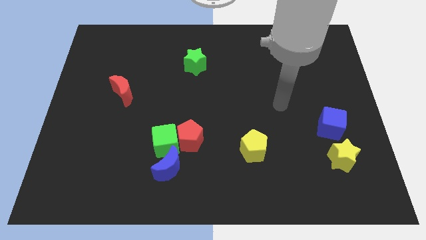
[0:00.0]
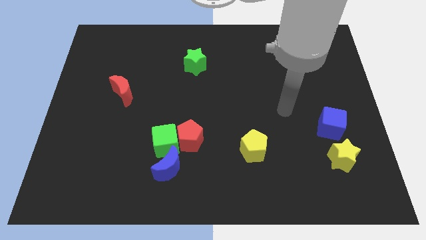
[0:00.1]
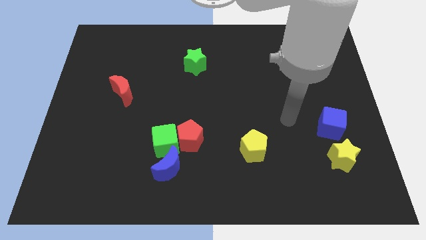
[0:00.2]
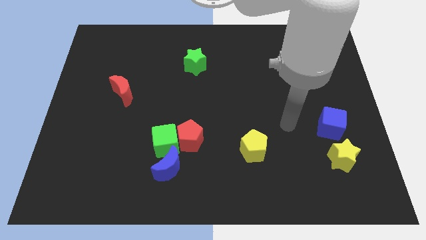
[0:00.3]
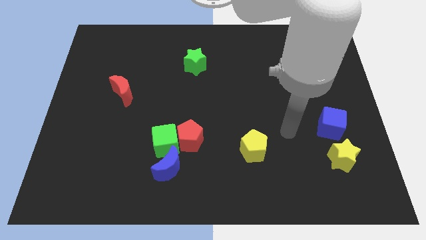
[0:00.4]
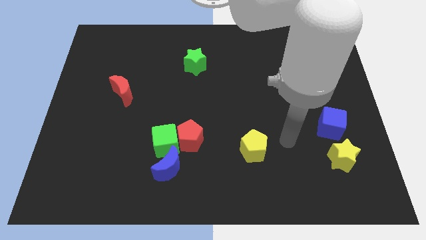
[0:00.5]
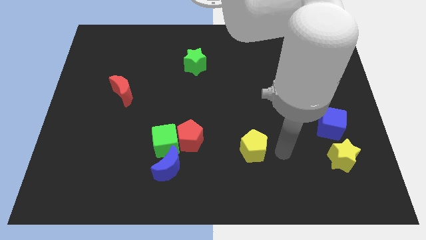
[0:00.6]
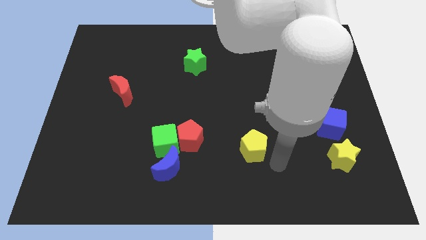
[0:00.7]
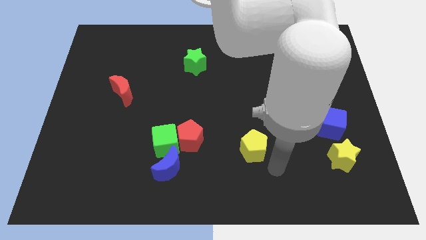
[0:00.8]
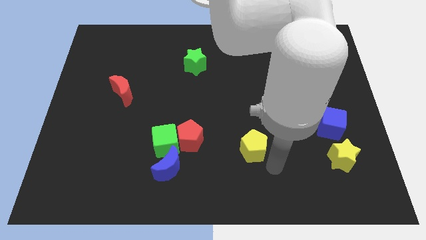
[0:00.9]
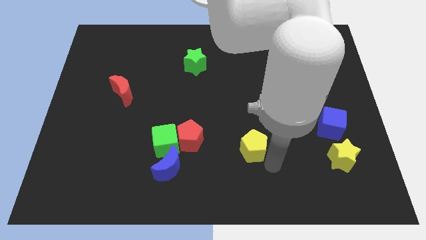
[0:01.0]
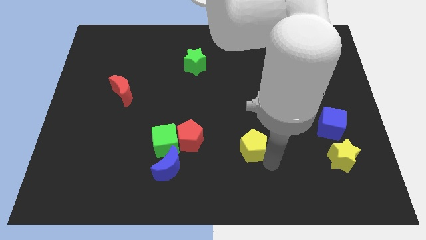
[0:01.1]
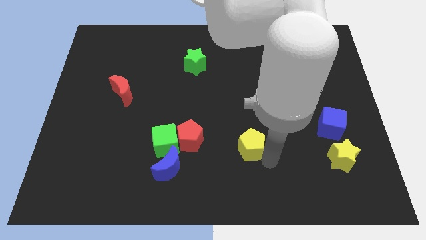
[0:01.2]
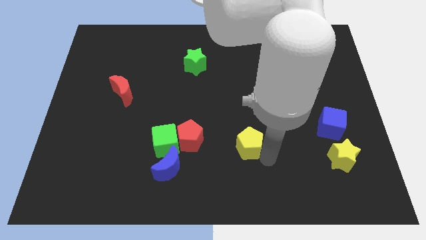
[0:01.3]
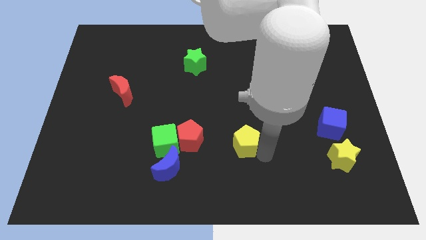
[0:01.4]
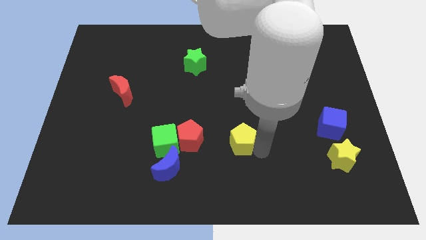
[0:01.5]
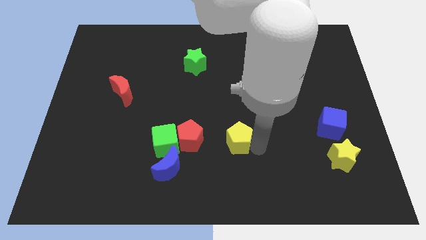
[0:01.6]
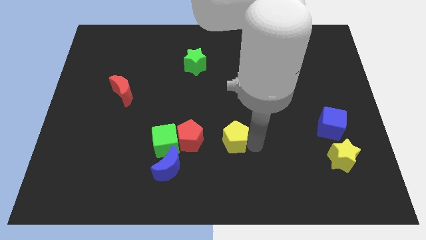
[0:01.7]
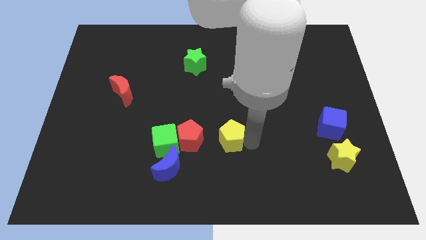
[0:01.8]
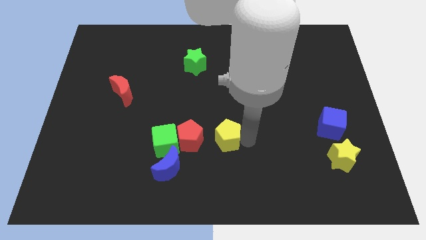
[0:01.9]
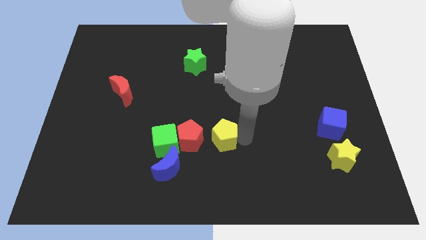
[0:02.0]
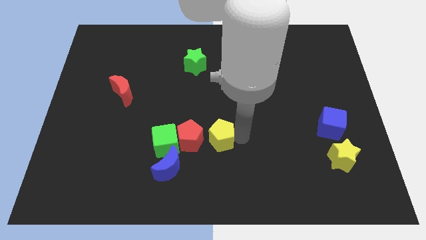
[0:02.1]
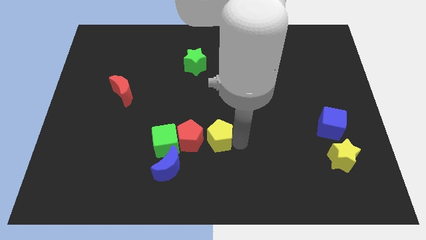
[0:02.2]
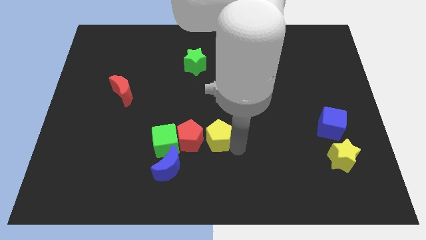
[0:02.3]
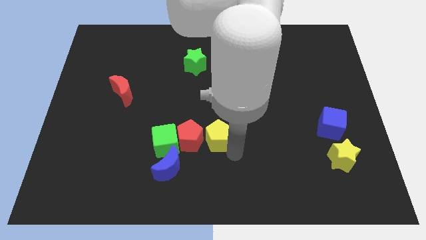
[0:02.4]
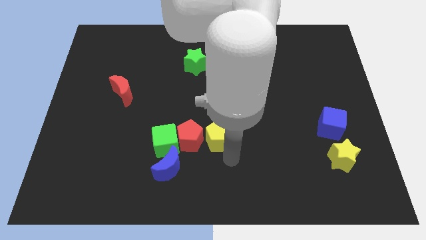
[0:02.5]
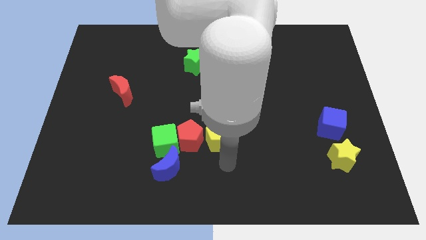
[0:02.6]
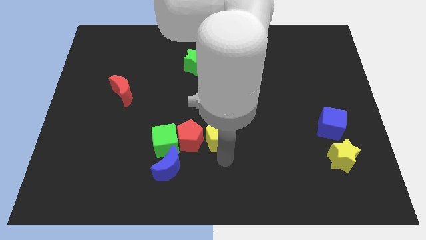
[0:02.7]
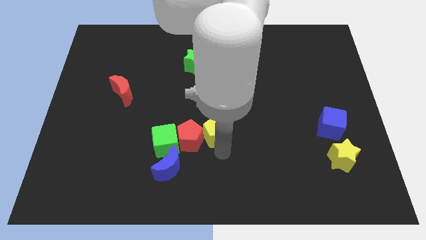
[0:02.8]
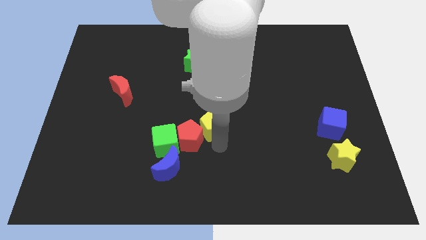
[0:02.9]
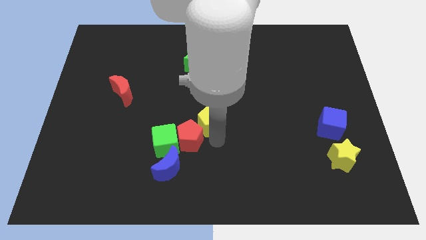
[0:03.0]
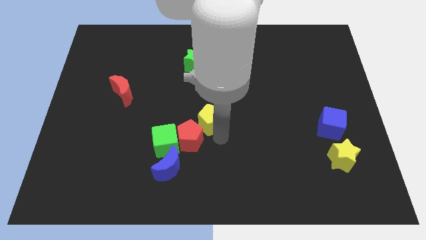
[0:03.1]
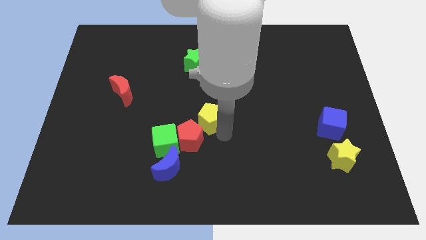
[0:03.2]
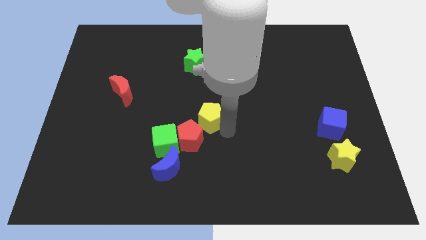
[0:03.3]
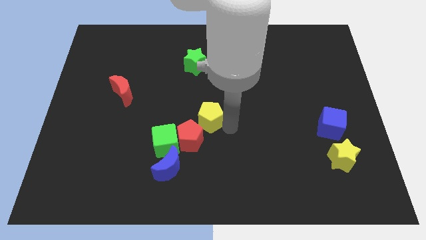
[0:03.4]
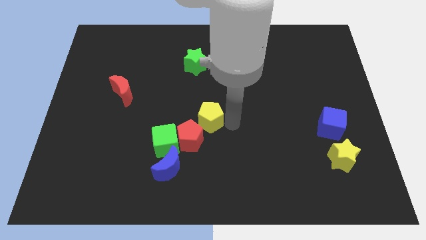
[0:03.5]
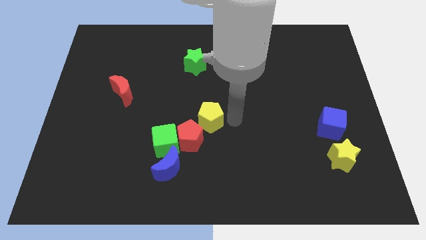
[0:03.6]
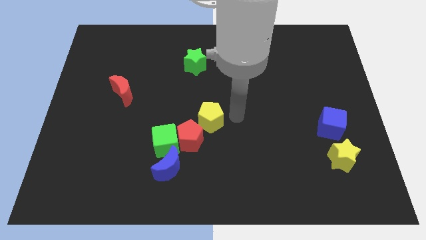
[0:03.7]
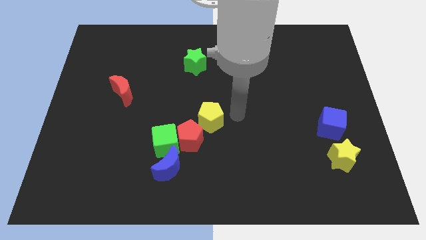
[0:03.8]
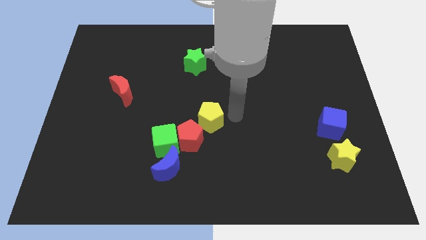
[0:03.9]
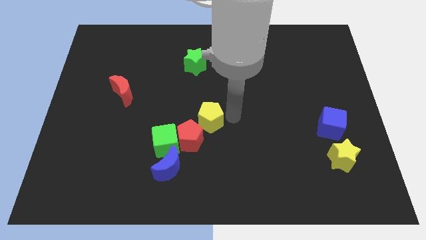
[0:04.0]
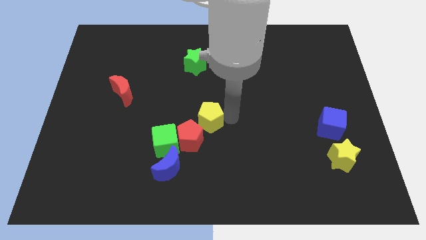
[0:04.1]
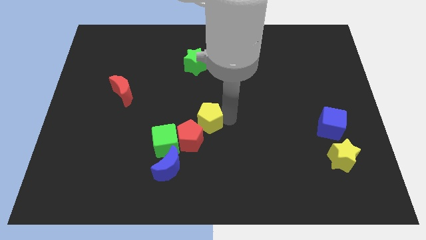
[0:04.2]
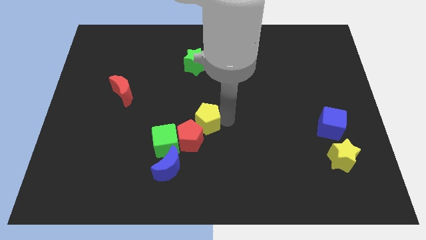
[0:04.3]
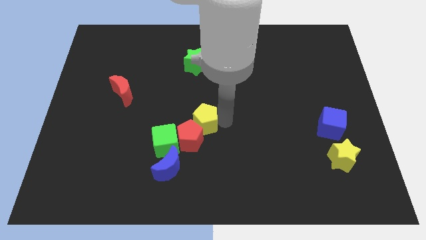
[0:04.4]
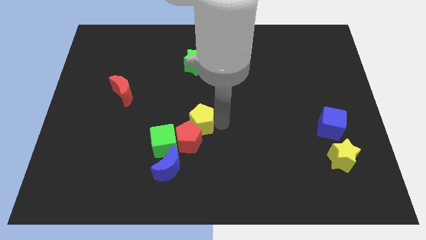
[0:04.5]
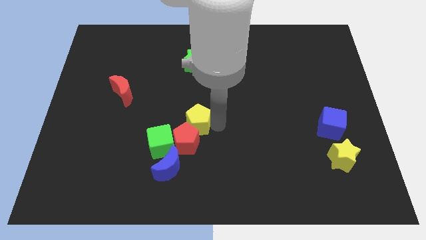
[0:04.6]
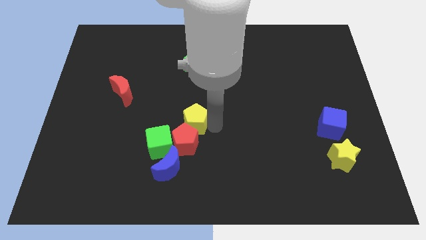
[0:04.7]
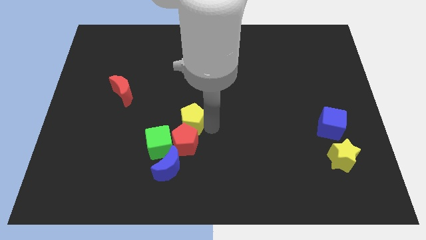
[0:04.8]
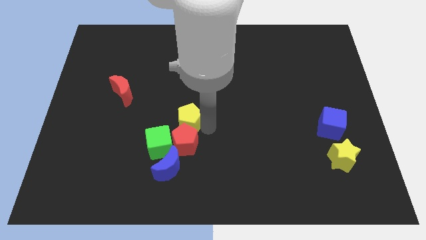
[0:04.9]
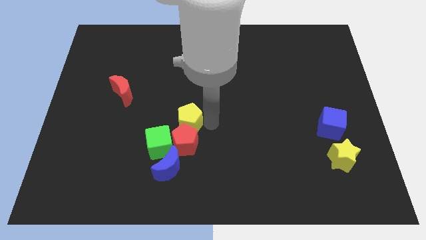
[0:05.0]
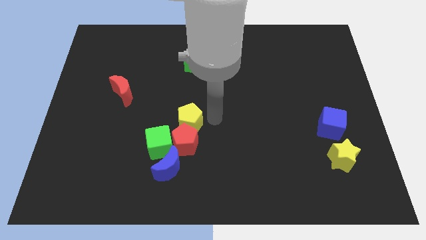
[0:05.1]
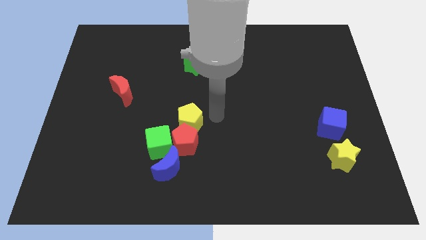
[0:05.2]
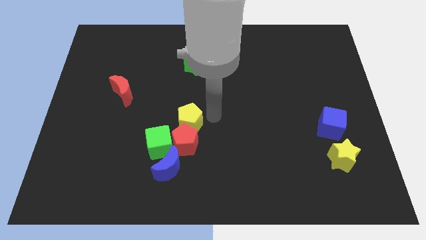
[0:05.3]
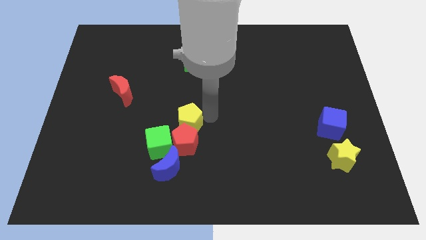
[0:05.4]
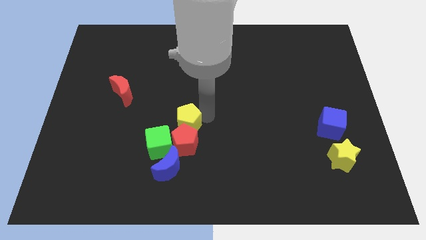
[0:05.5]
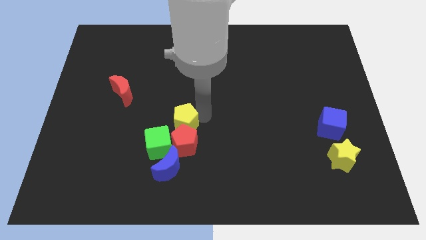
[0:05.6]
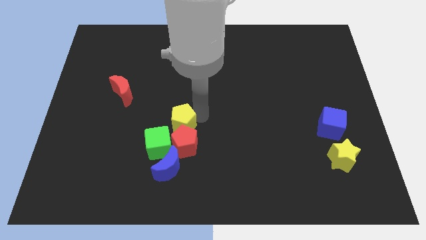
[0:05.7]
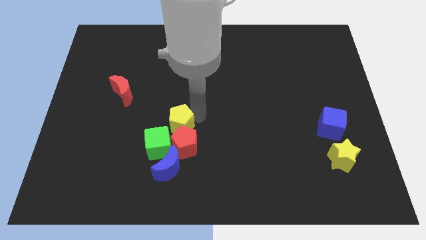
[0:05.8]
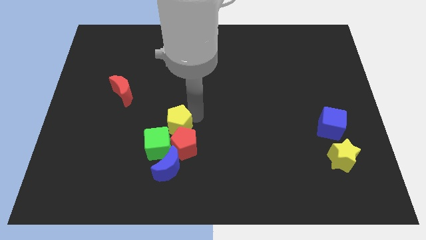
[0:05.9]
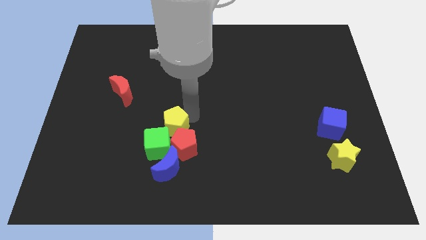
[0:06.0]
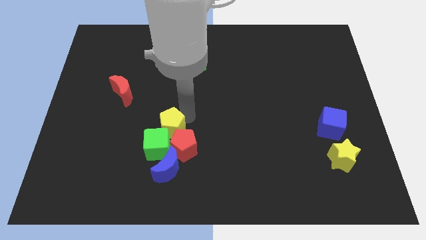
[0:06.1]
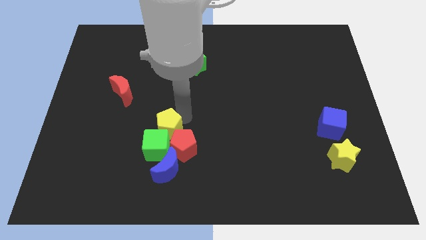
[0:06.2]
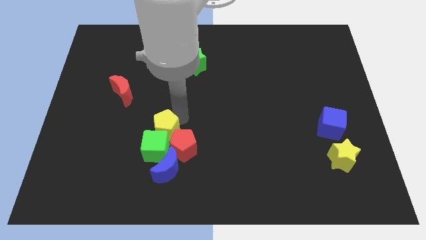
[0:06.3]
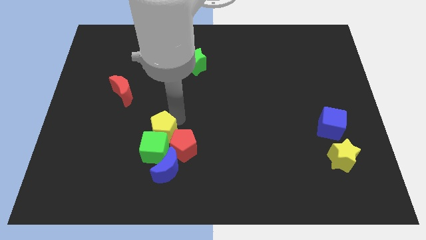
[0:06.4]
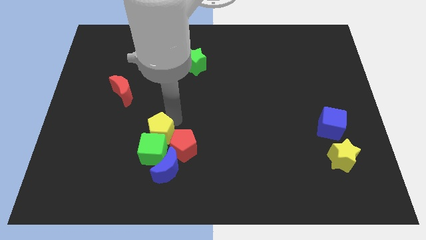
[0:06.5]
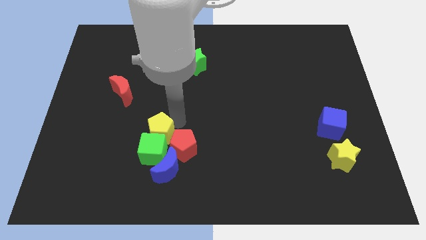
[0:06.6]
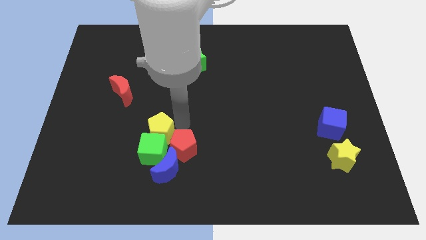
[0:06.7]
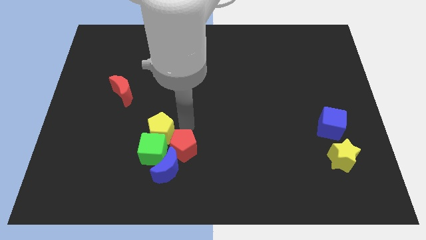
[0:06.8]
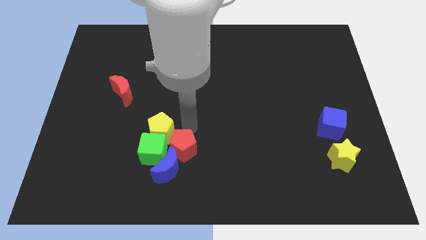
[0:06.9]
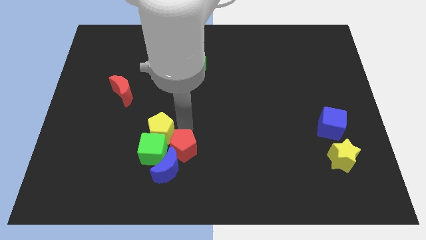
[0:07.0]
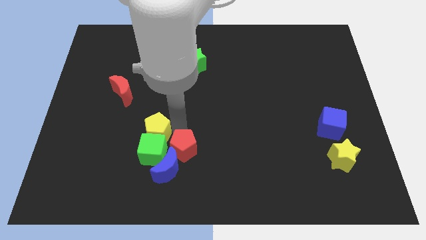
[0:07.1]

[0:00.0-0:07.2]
slide the yellow pentagon left

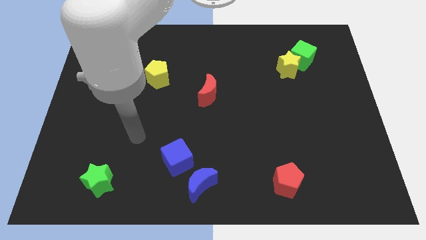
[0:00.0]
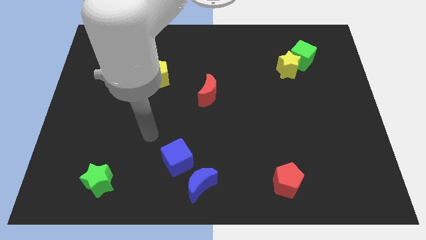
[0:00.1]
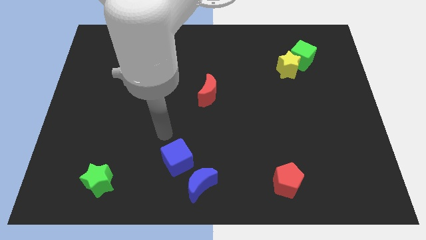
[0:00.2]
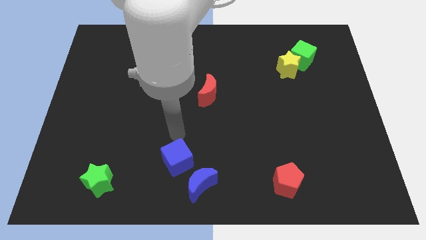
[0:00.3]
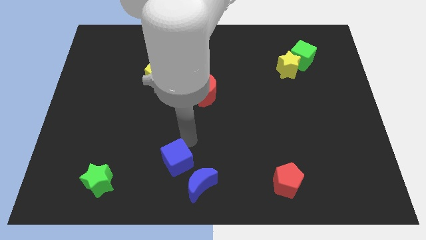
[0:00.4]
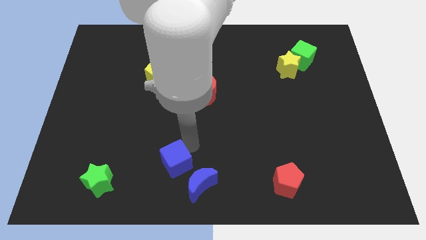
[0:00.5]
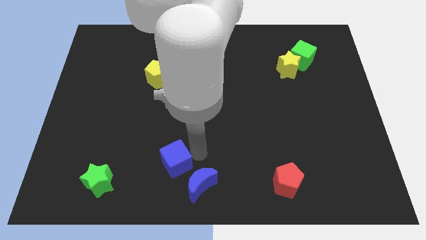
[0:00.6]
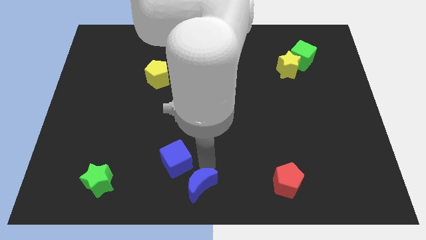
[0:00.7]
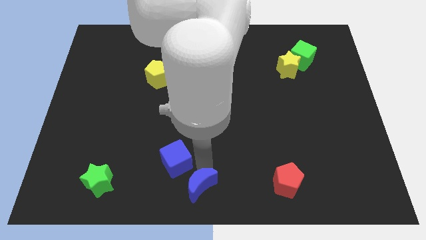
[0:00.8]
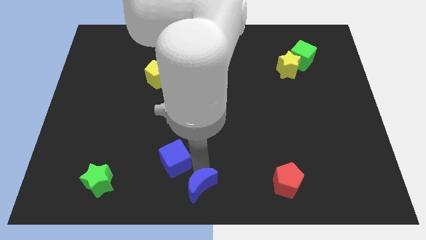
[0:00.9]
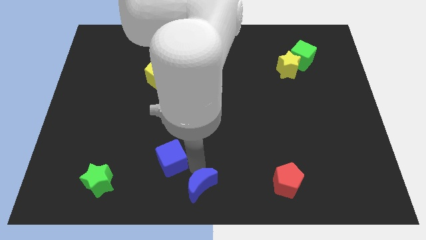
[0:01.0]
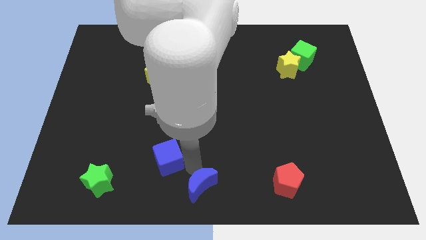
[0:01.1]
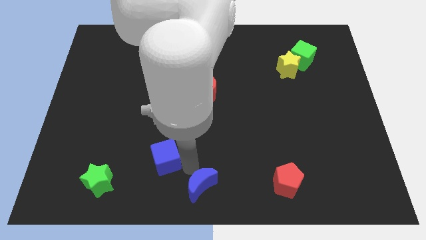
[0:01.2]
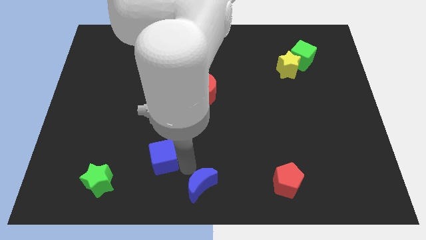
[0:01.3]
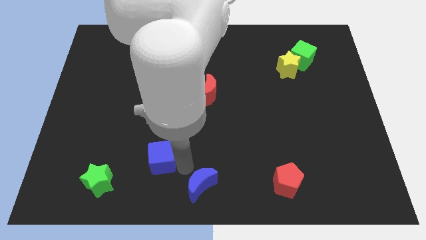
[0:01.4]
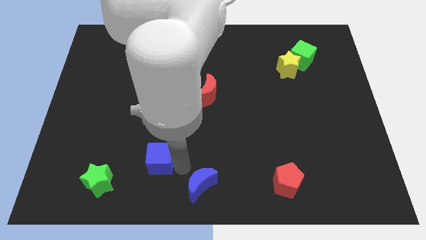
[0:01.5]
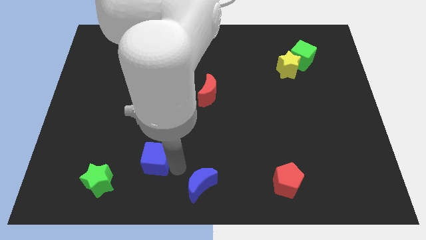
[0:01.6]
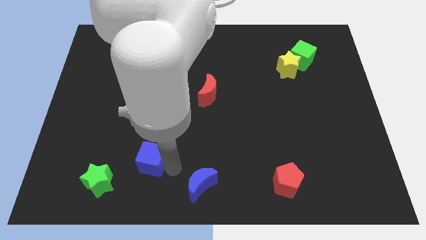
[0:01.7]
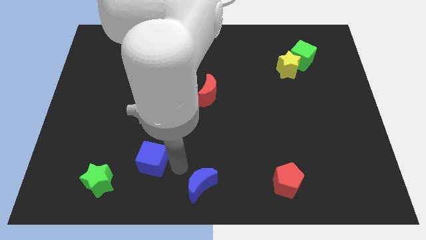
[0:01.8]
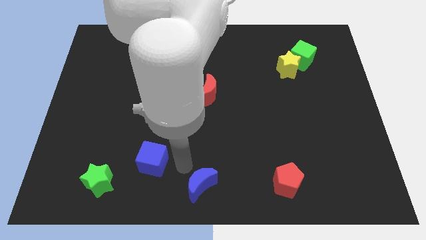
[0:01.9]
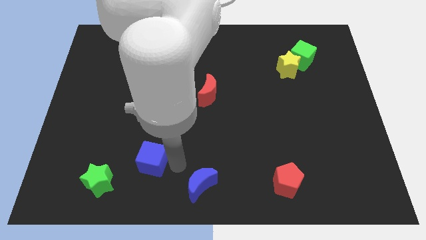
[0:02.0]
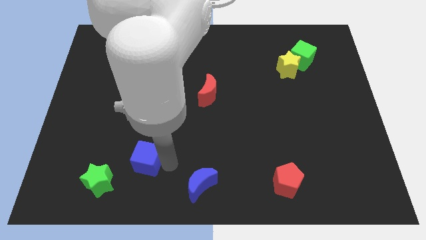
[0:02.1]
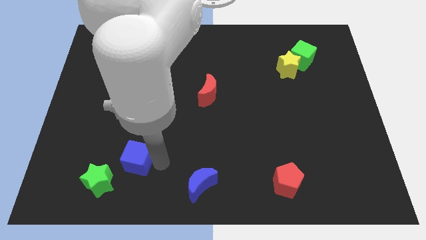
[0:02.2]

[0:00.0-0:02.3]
slightly push the blue cube left
